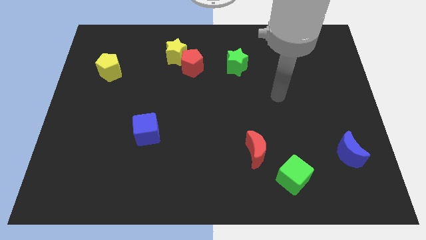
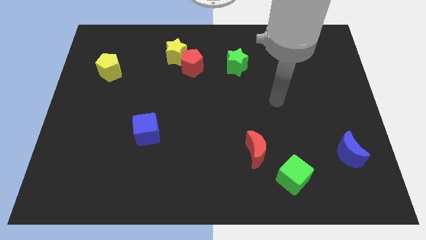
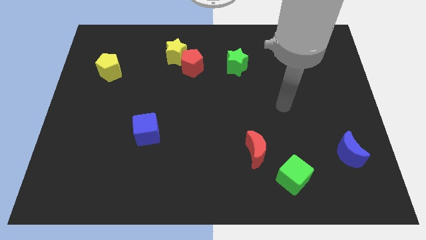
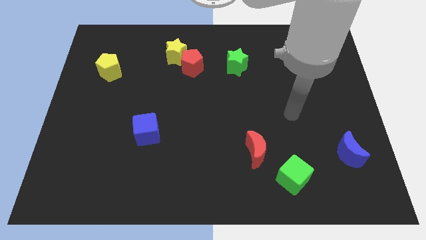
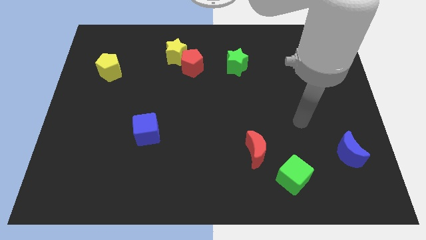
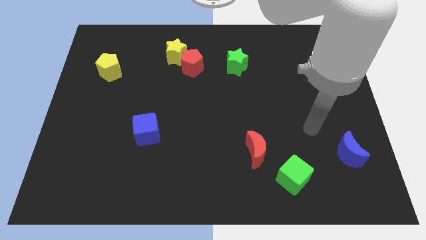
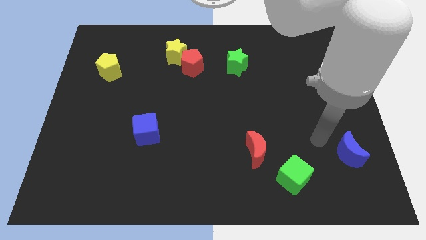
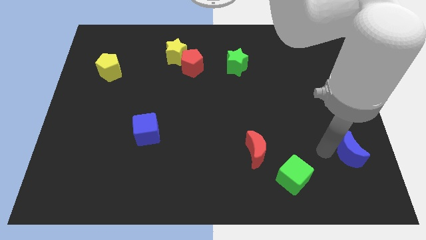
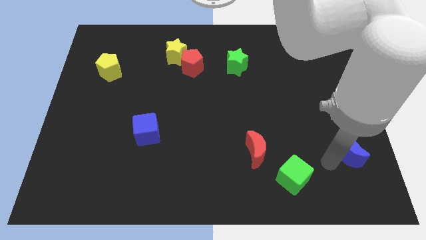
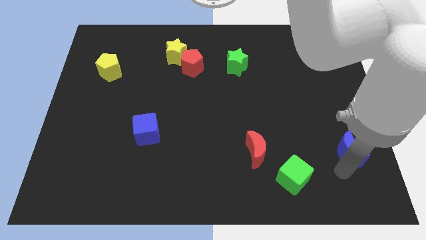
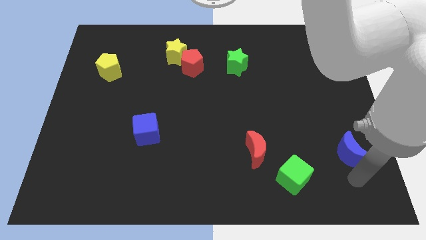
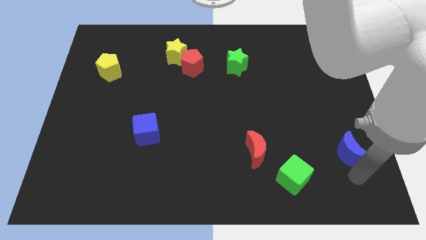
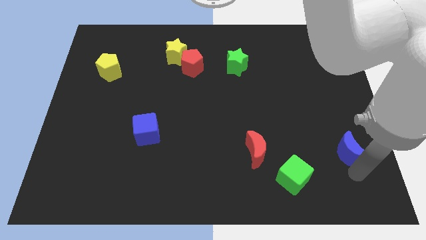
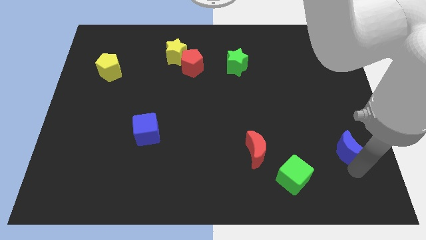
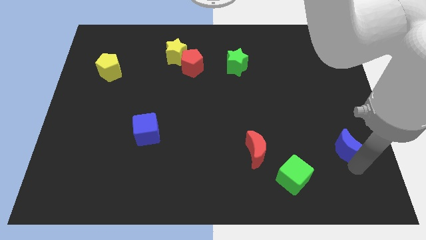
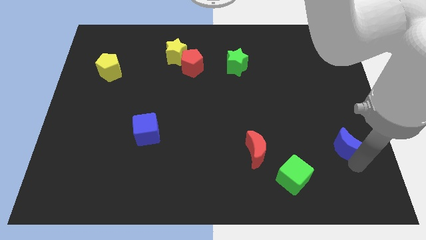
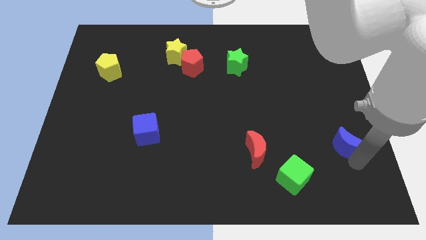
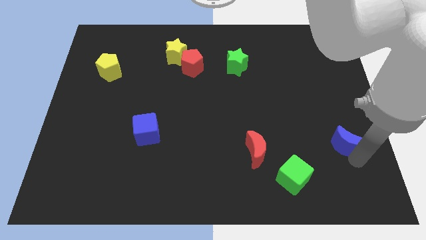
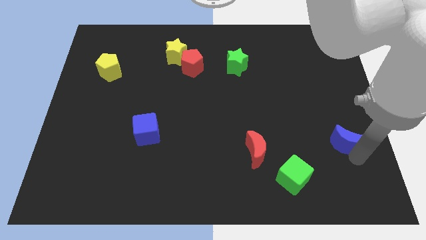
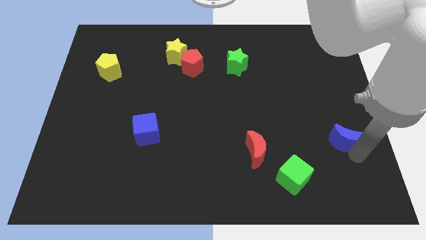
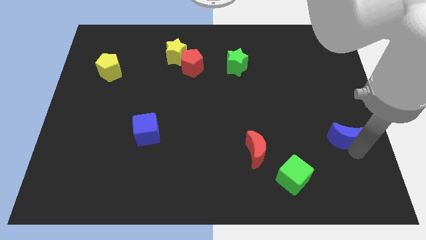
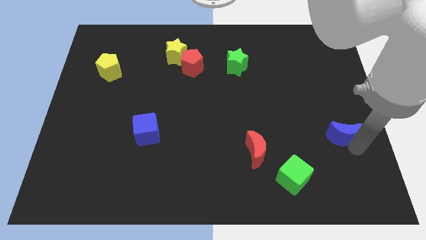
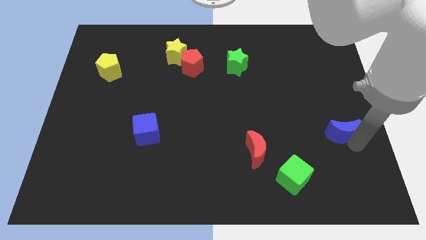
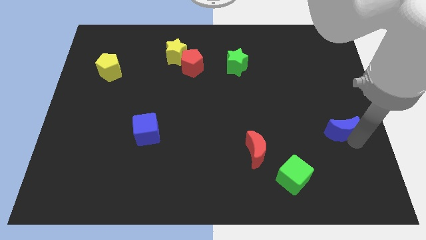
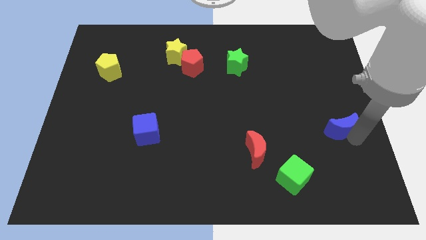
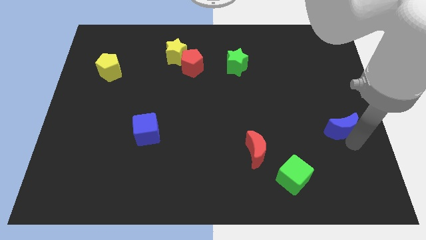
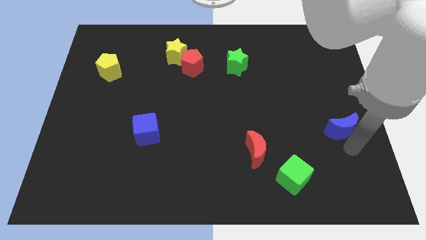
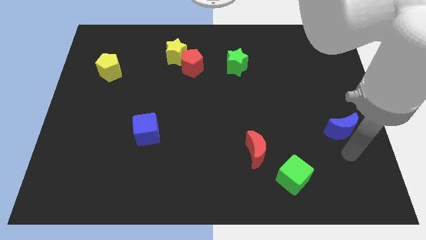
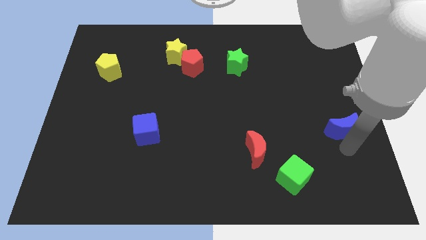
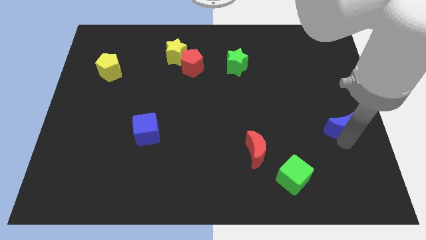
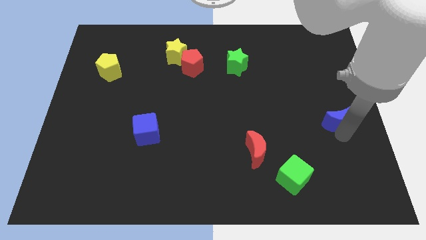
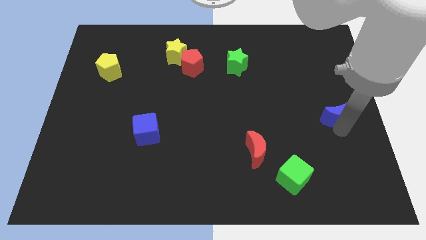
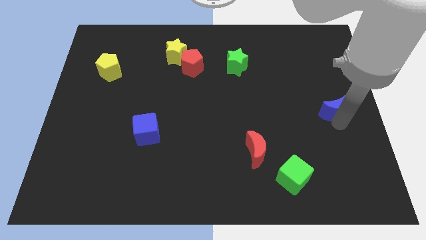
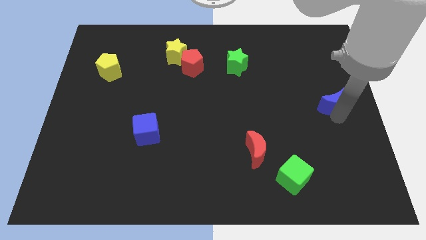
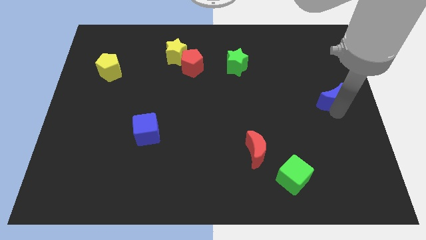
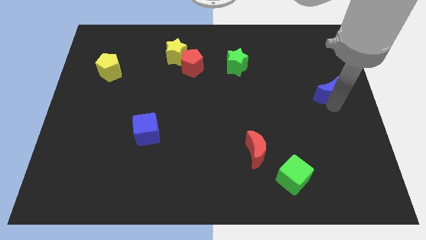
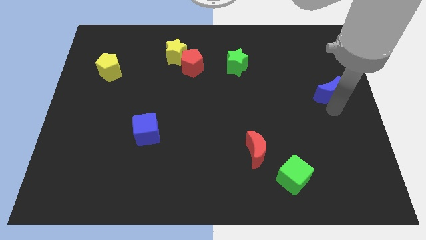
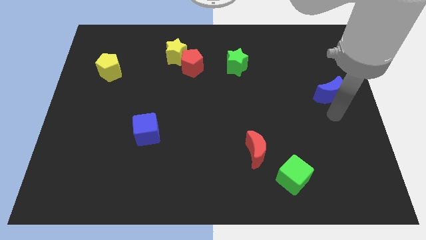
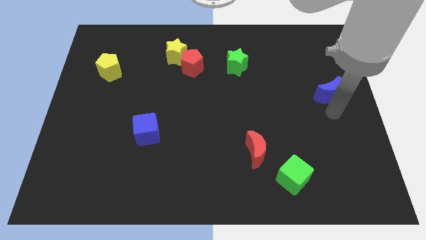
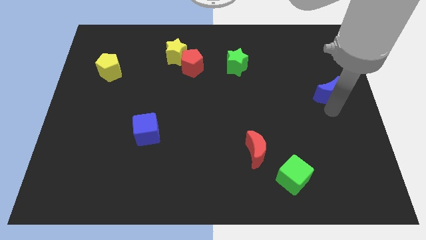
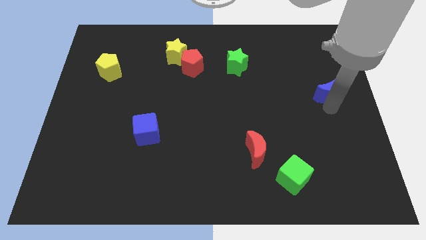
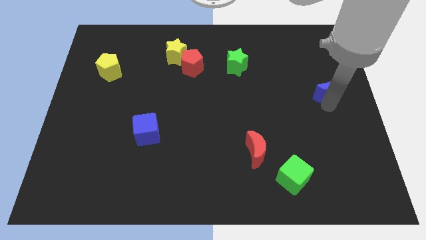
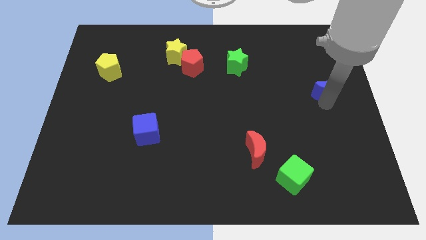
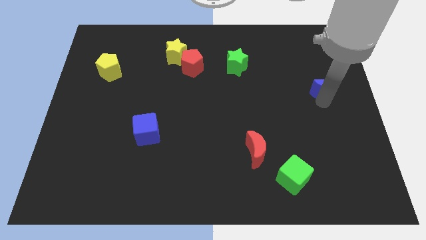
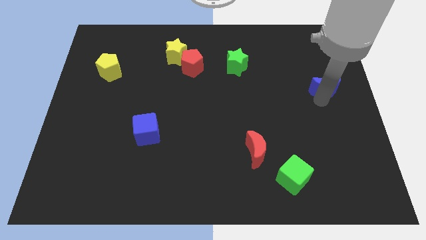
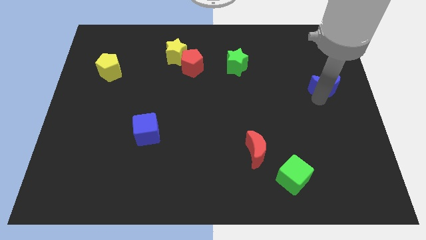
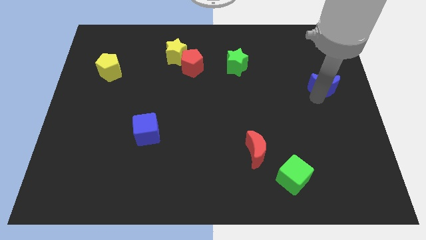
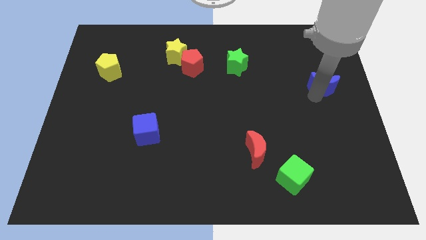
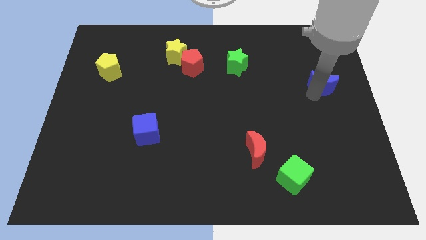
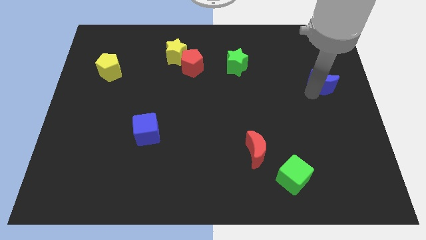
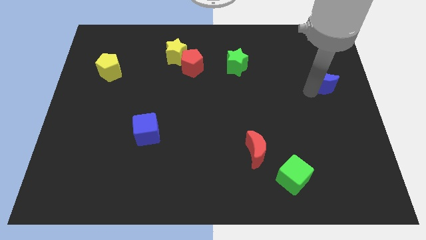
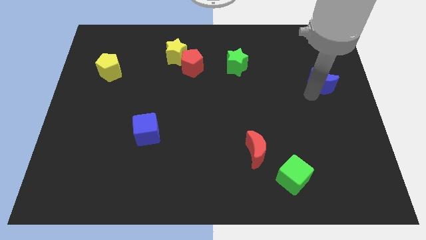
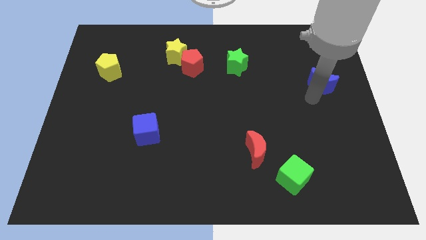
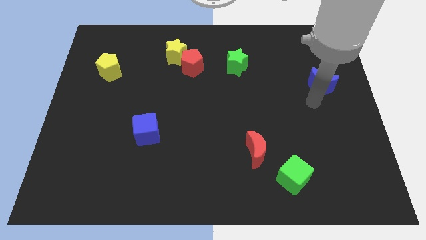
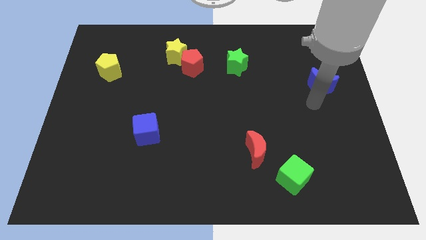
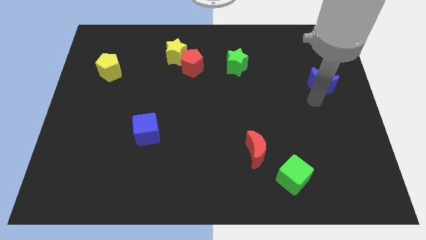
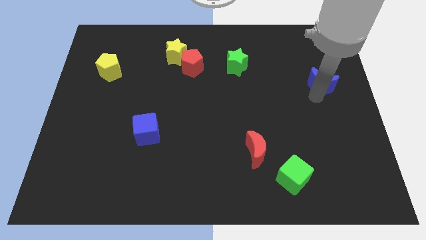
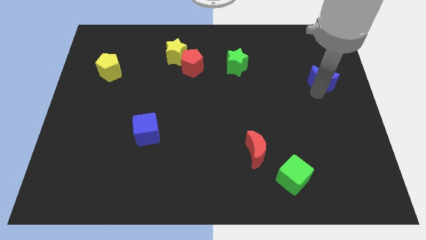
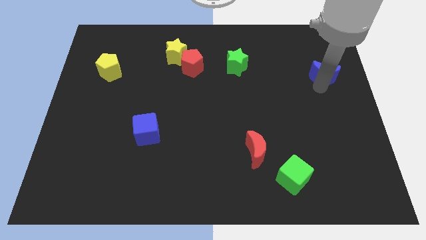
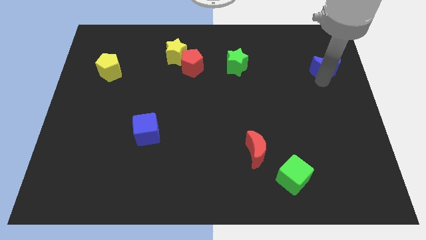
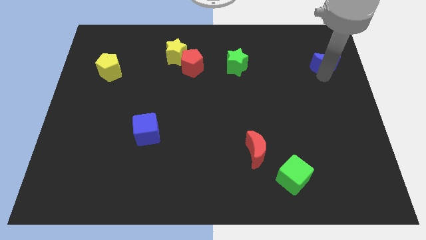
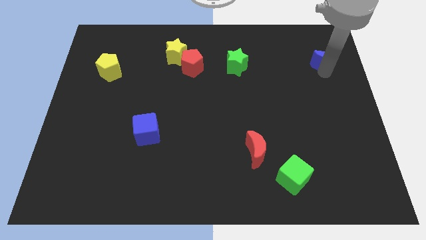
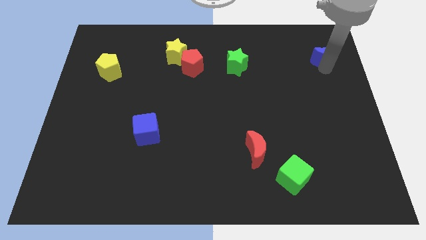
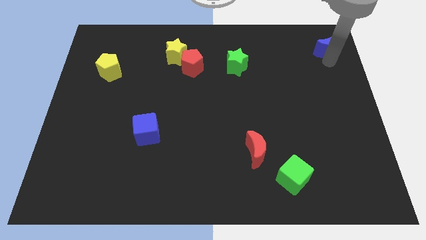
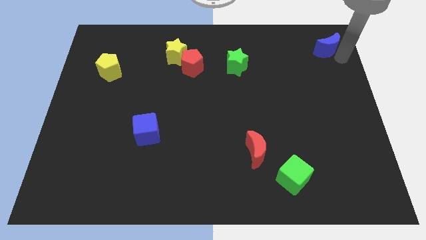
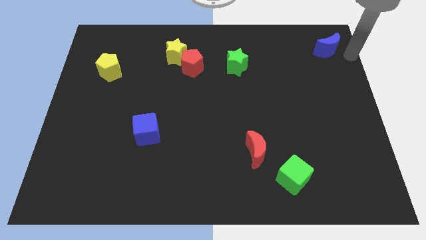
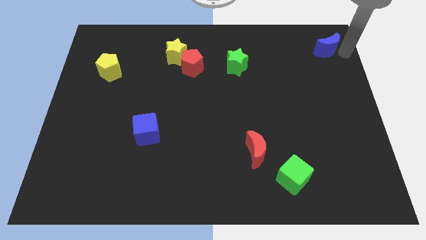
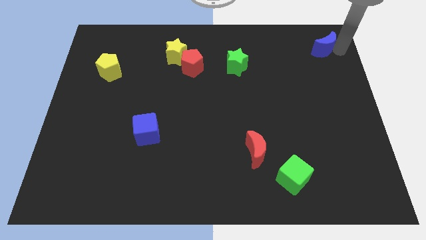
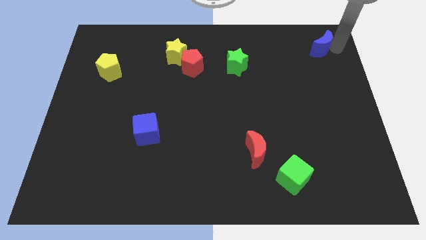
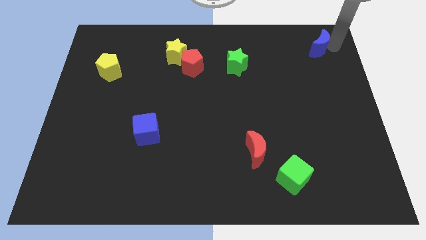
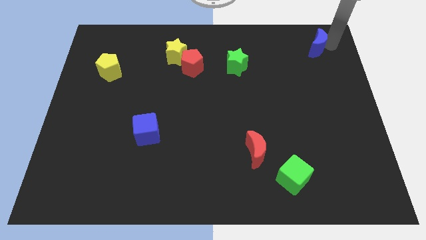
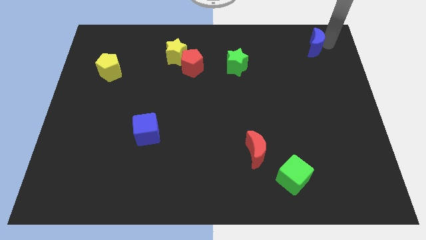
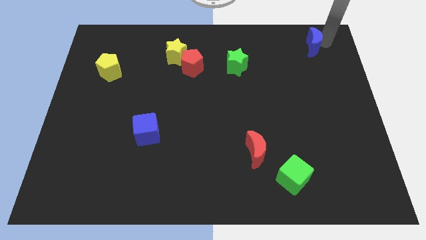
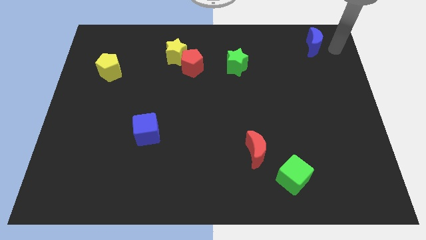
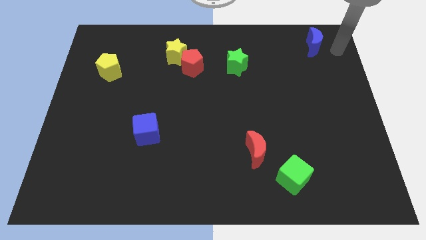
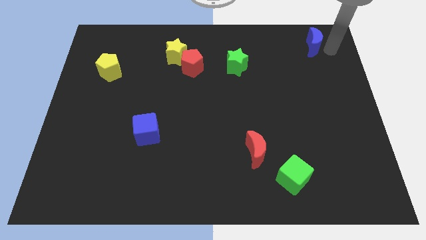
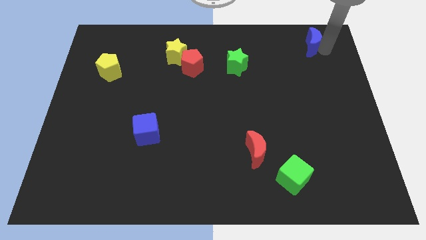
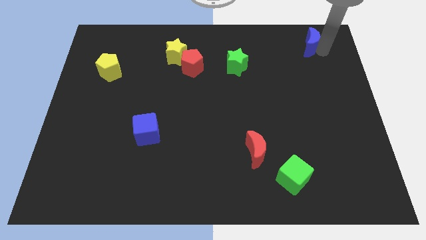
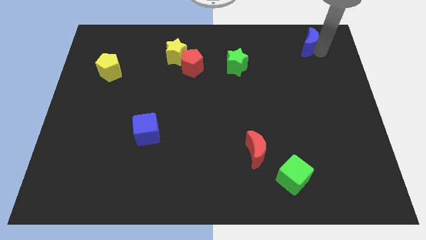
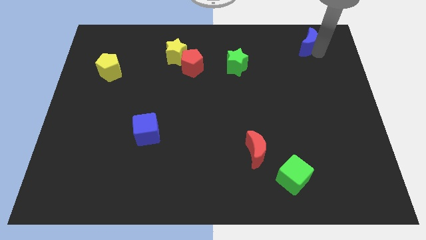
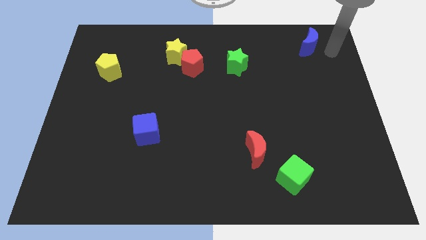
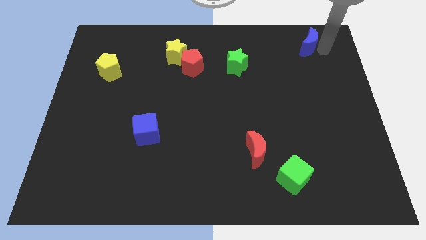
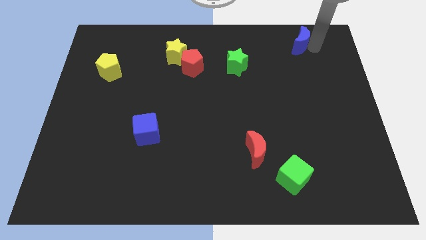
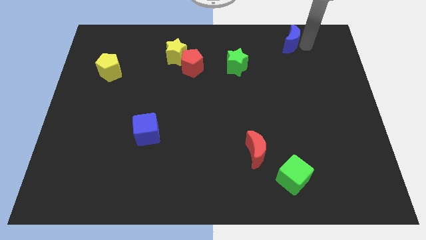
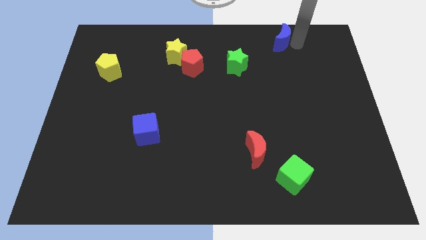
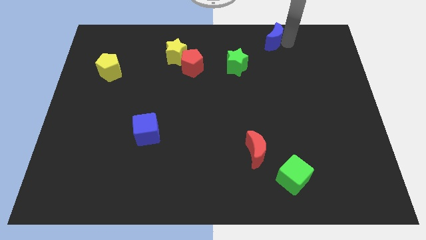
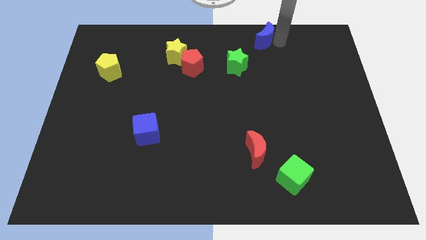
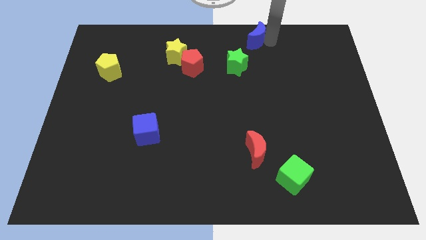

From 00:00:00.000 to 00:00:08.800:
move the blue moon to the towards your base
